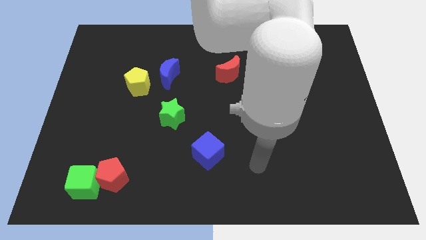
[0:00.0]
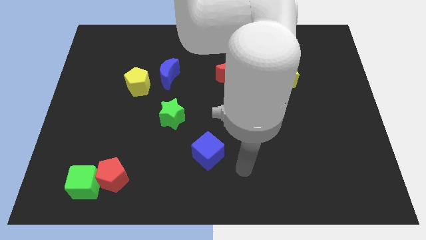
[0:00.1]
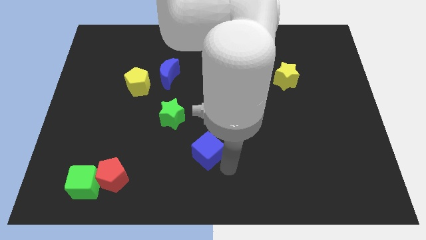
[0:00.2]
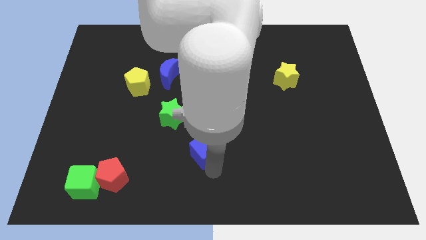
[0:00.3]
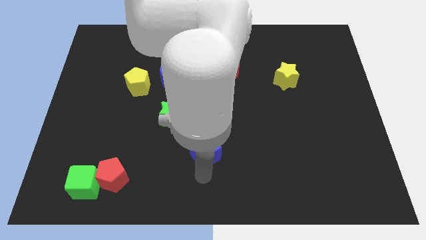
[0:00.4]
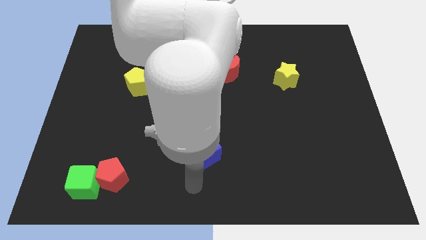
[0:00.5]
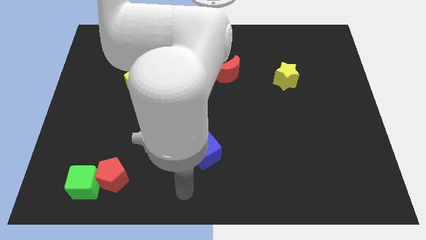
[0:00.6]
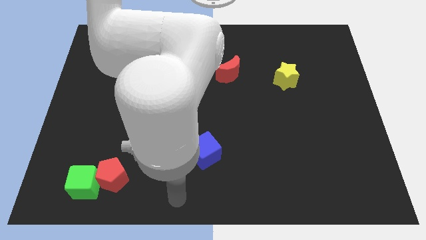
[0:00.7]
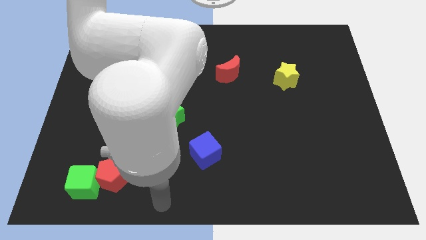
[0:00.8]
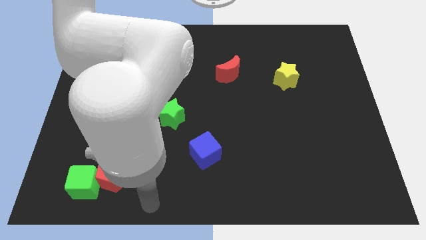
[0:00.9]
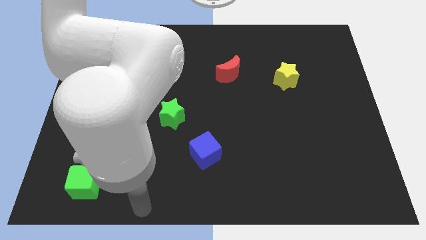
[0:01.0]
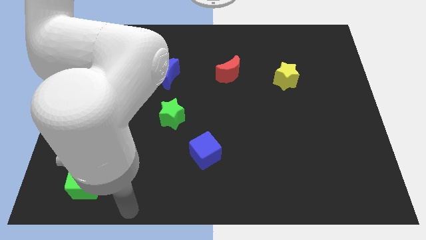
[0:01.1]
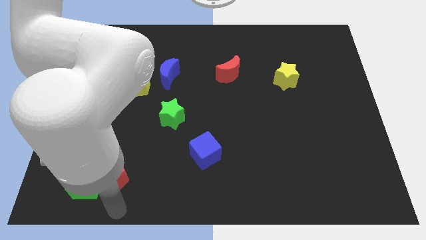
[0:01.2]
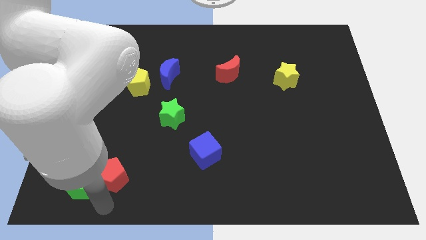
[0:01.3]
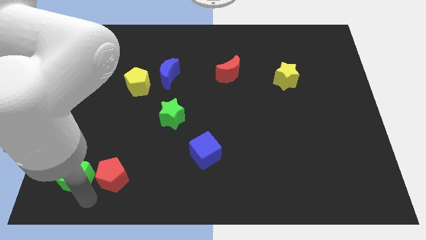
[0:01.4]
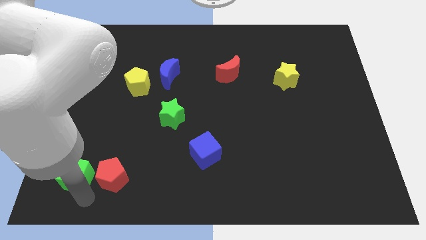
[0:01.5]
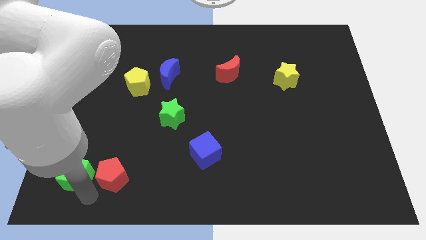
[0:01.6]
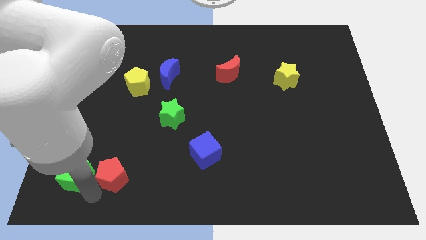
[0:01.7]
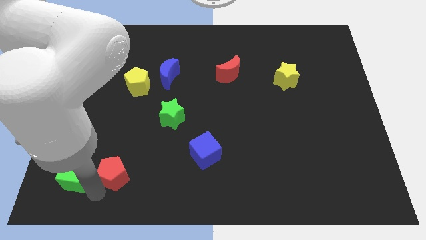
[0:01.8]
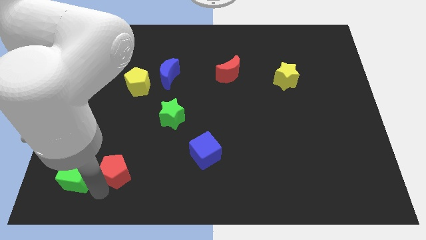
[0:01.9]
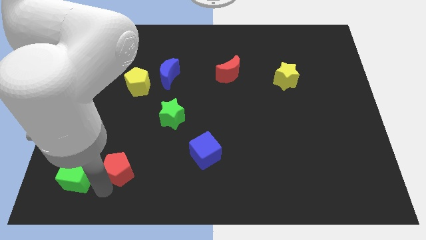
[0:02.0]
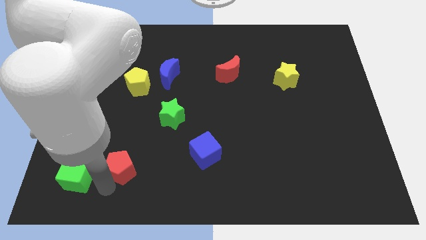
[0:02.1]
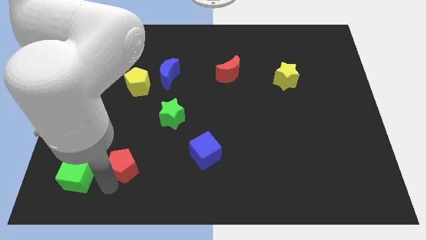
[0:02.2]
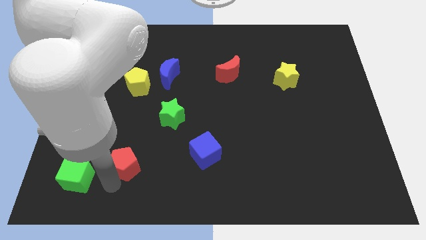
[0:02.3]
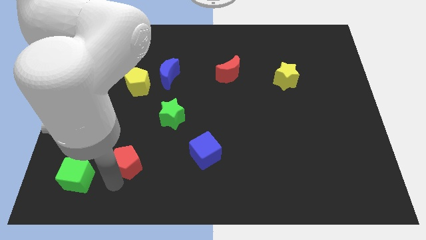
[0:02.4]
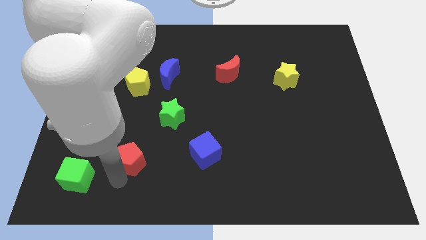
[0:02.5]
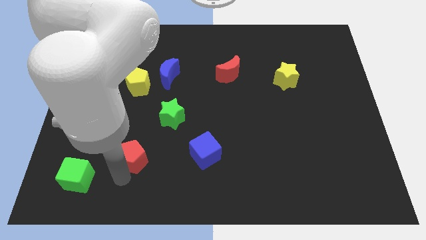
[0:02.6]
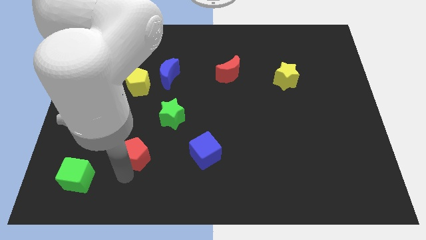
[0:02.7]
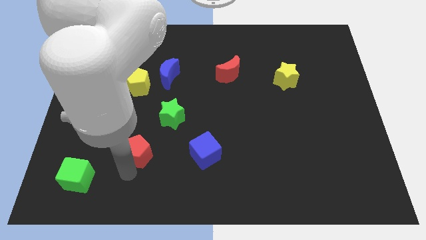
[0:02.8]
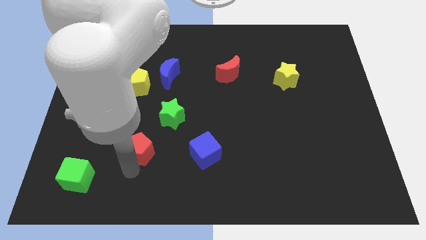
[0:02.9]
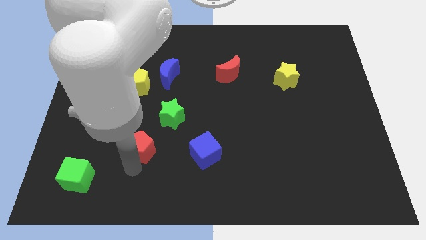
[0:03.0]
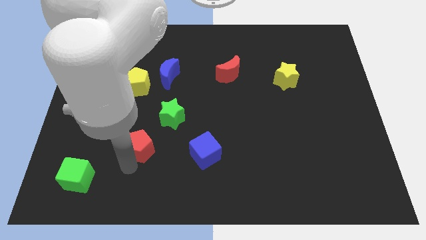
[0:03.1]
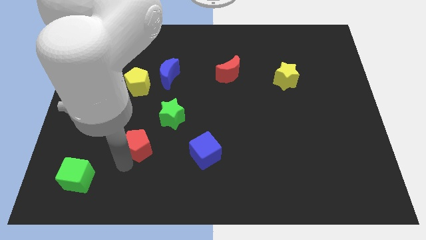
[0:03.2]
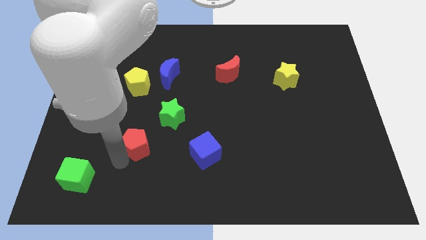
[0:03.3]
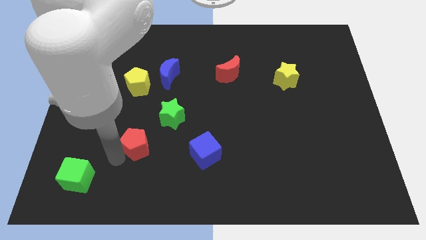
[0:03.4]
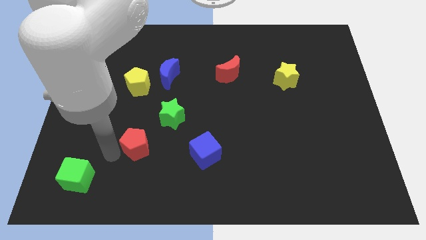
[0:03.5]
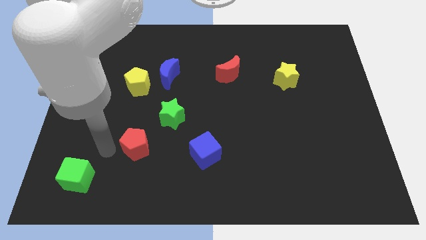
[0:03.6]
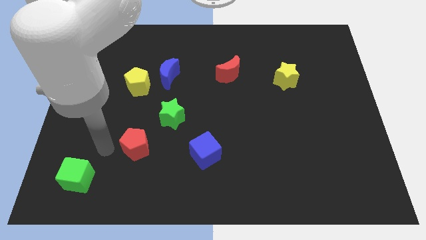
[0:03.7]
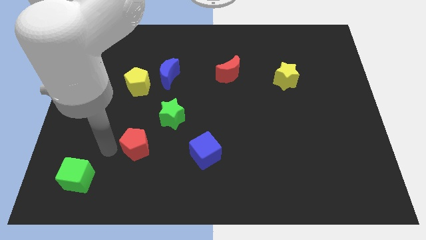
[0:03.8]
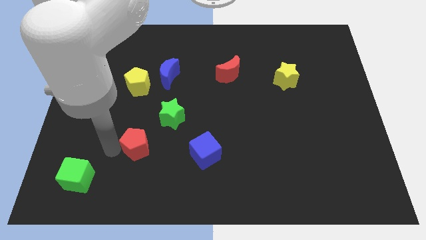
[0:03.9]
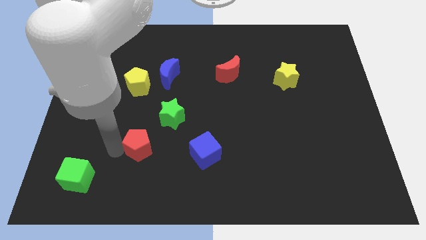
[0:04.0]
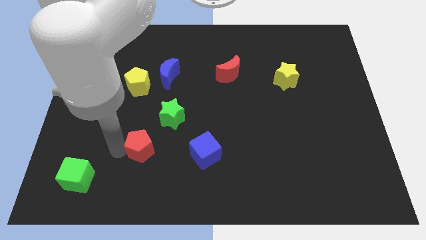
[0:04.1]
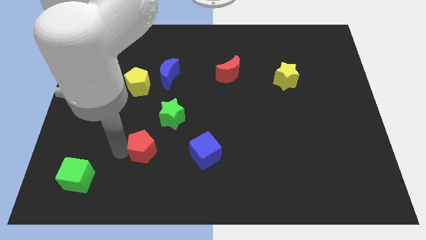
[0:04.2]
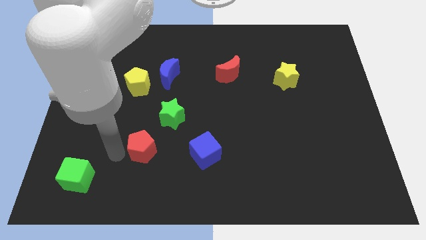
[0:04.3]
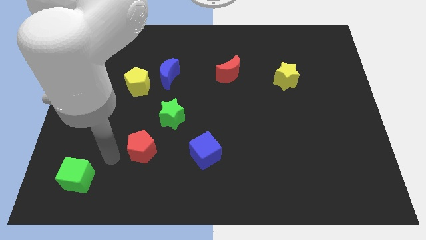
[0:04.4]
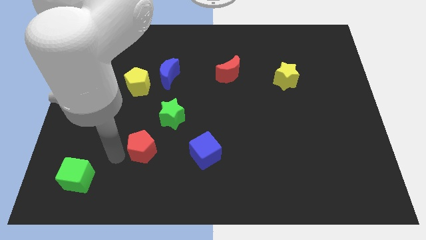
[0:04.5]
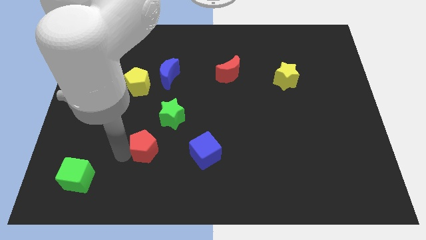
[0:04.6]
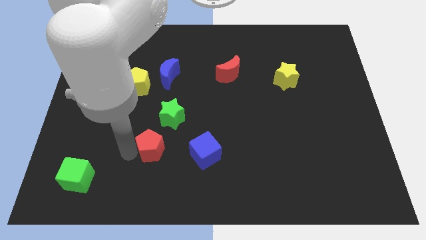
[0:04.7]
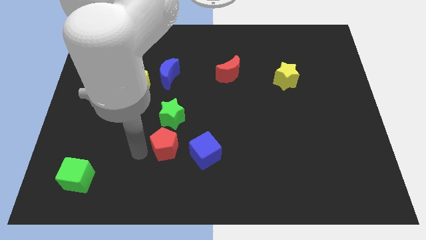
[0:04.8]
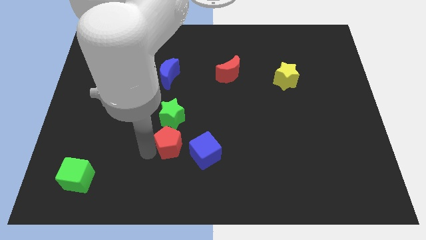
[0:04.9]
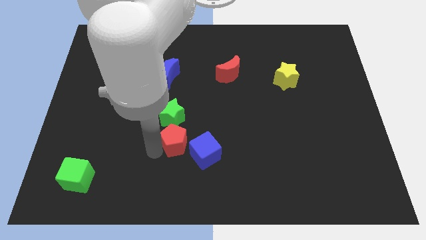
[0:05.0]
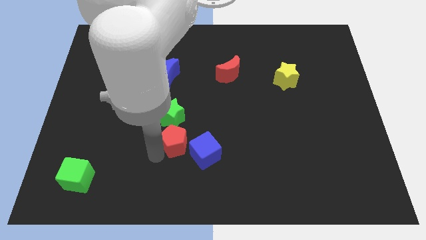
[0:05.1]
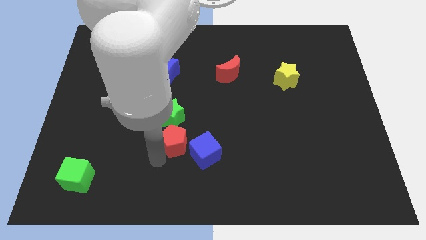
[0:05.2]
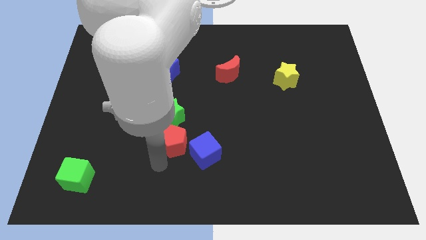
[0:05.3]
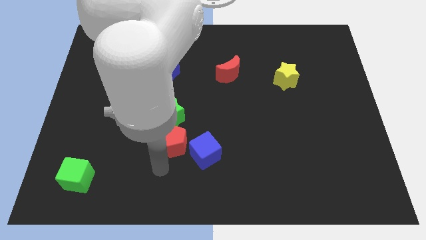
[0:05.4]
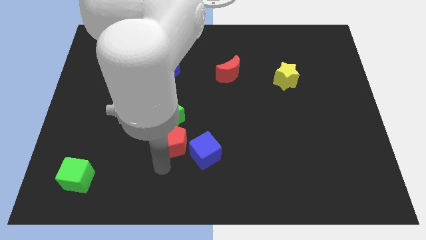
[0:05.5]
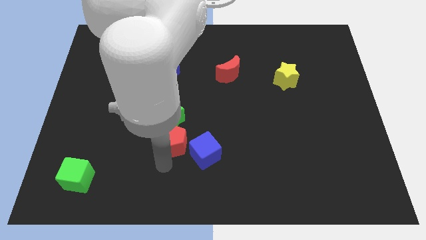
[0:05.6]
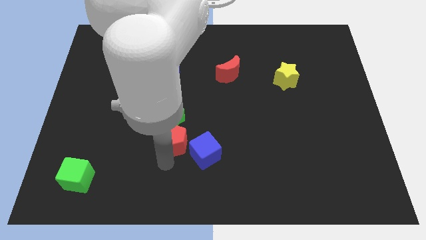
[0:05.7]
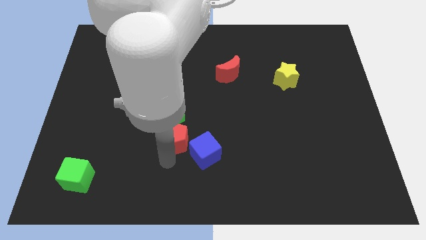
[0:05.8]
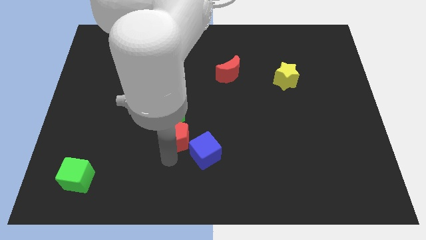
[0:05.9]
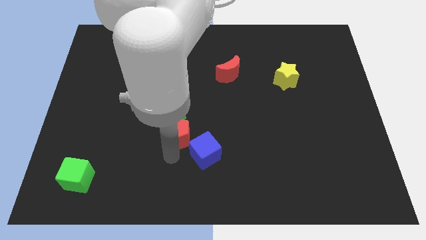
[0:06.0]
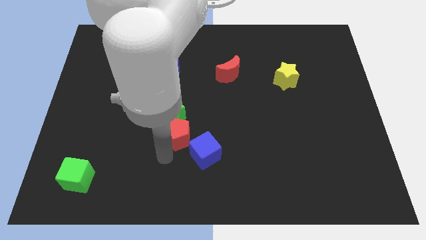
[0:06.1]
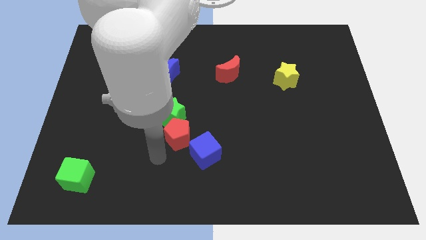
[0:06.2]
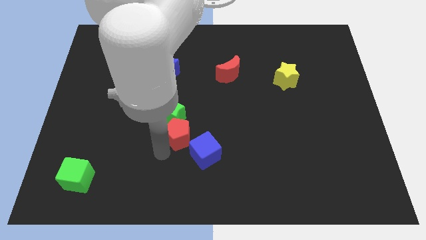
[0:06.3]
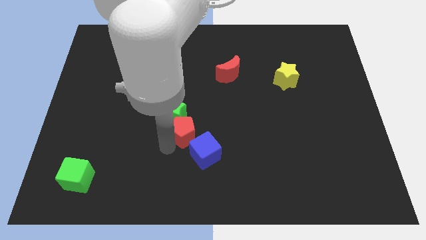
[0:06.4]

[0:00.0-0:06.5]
move the red pentagon to the center of the board
